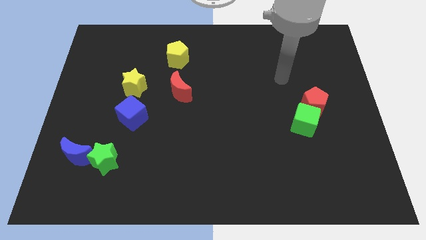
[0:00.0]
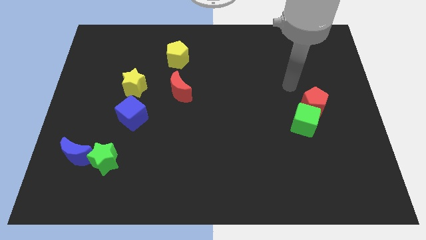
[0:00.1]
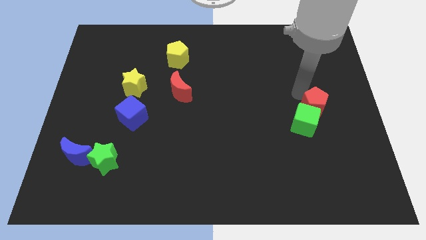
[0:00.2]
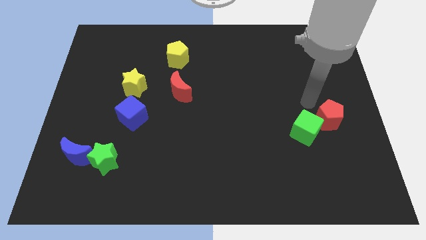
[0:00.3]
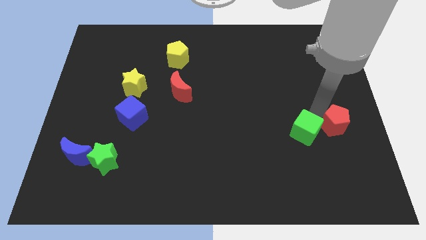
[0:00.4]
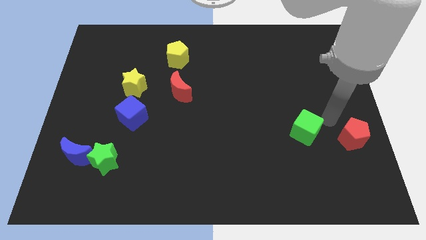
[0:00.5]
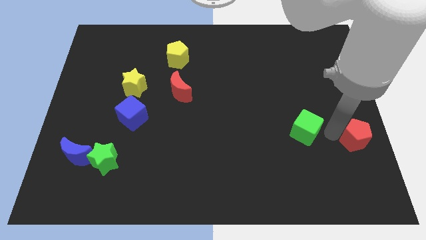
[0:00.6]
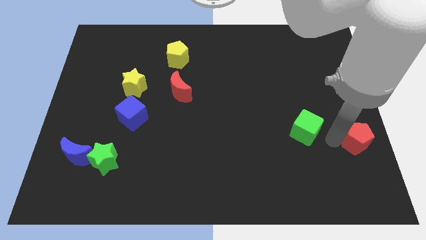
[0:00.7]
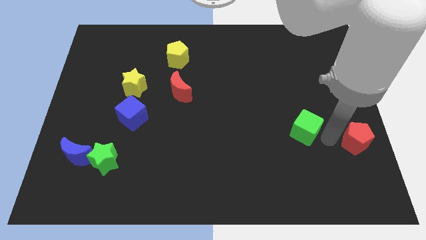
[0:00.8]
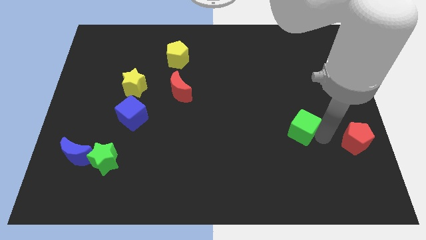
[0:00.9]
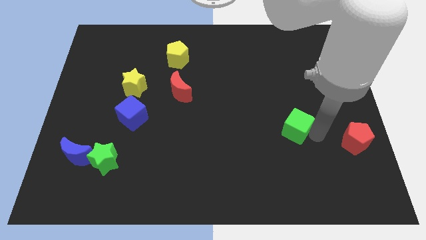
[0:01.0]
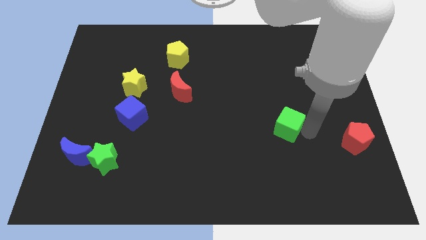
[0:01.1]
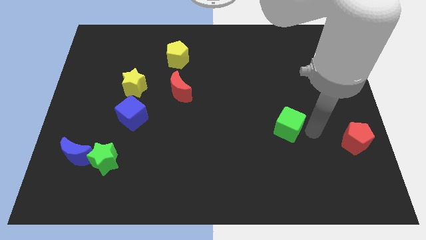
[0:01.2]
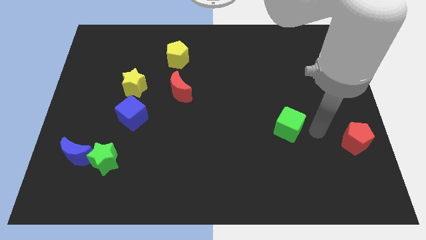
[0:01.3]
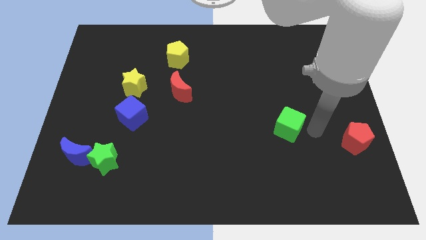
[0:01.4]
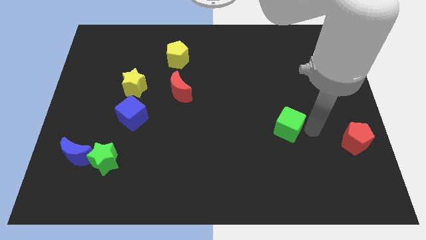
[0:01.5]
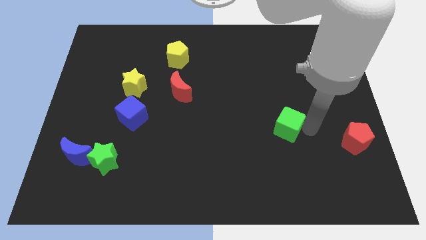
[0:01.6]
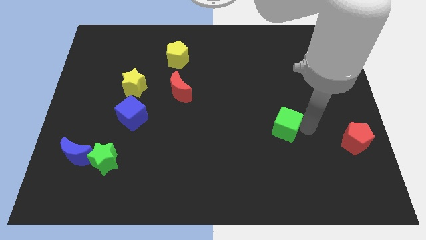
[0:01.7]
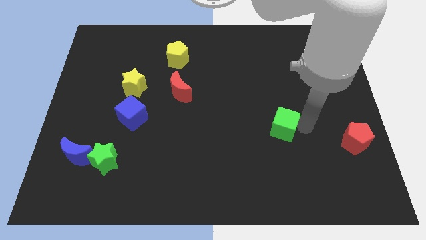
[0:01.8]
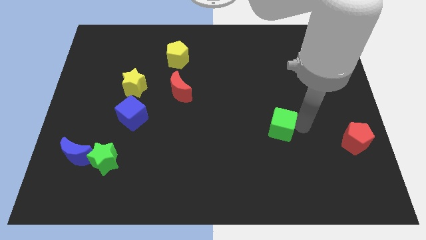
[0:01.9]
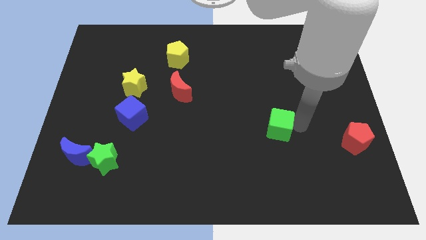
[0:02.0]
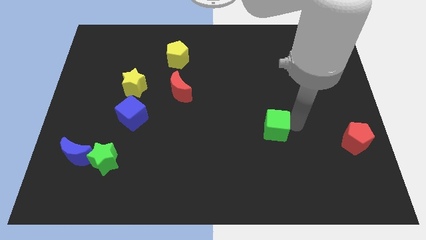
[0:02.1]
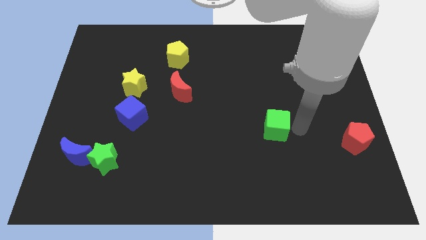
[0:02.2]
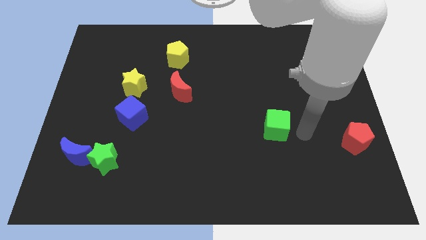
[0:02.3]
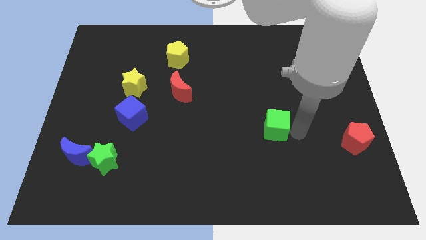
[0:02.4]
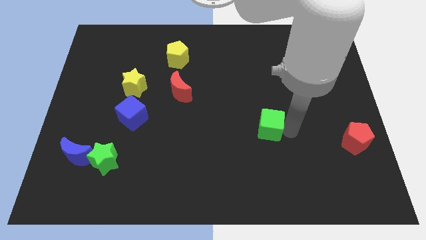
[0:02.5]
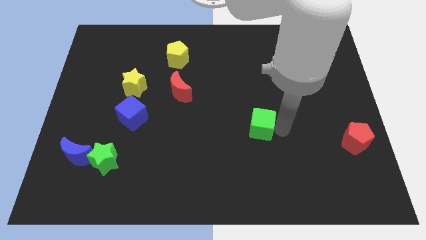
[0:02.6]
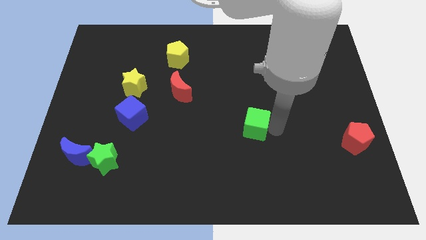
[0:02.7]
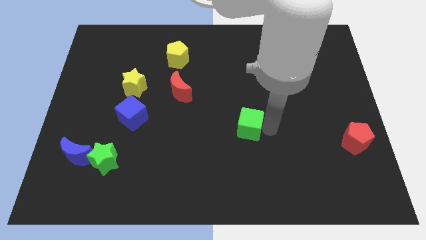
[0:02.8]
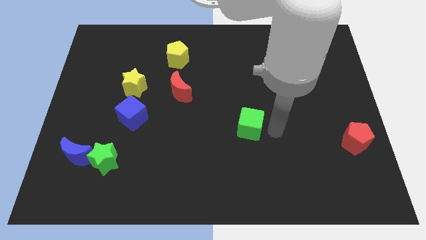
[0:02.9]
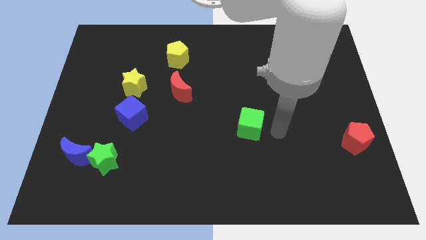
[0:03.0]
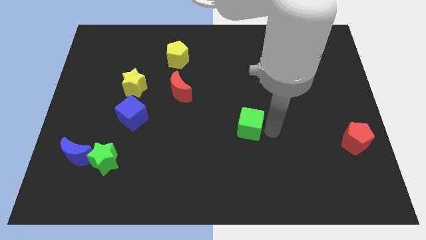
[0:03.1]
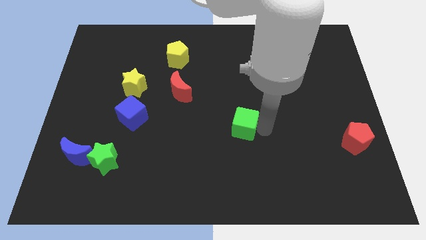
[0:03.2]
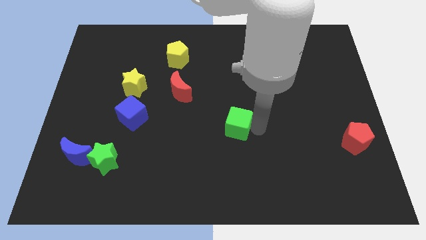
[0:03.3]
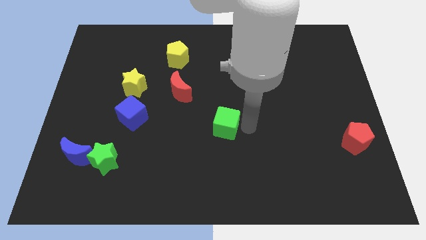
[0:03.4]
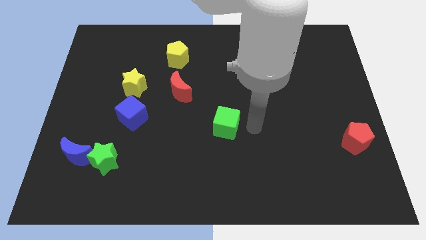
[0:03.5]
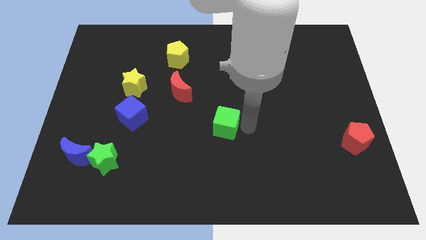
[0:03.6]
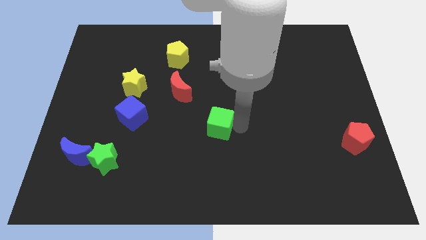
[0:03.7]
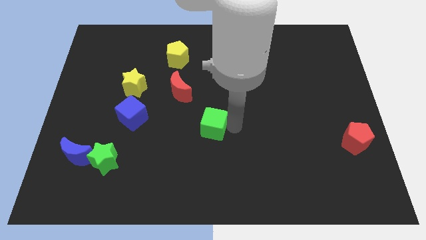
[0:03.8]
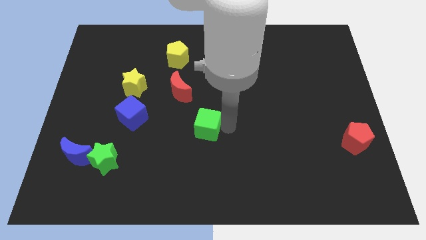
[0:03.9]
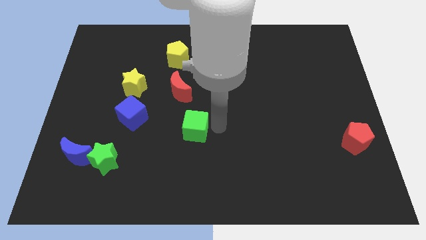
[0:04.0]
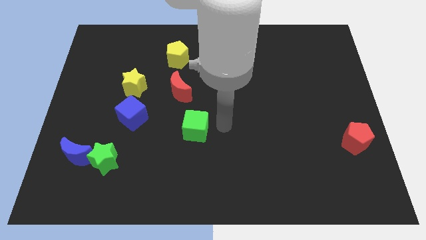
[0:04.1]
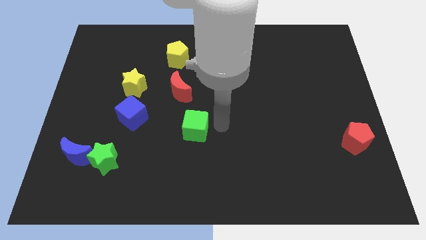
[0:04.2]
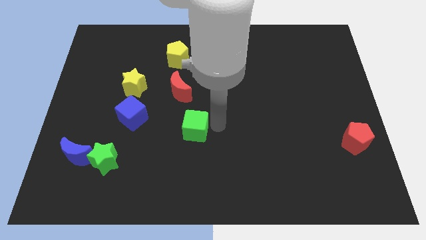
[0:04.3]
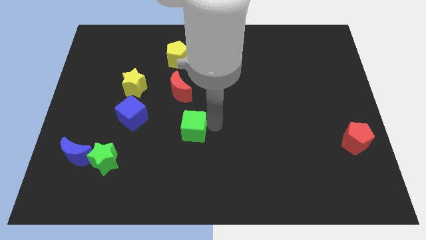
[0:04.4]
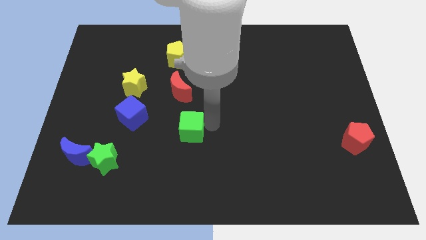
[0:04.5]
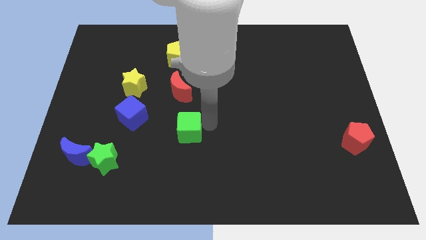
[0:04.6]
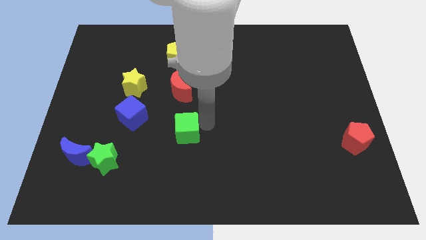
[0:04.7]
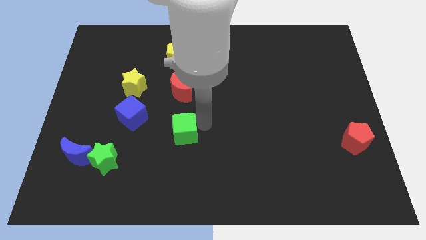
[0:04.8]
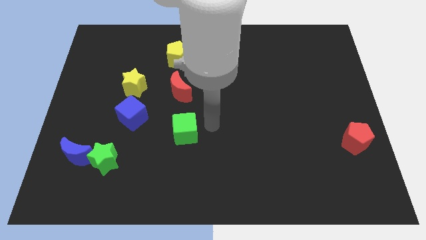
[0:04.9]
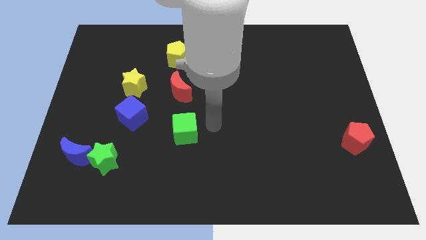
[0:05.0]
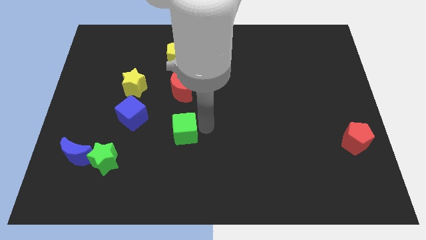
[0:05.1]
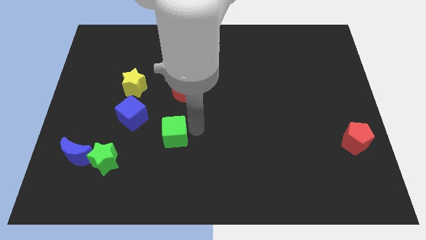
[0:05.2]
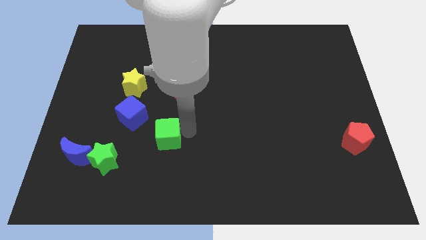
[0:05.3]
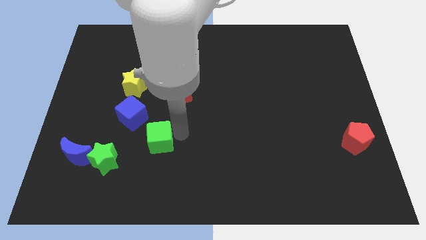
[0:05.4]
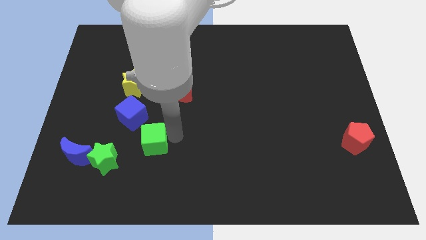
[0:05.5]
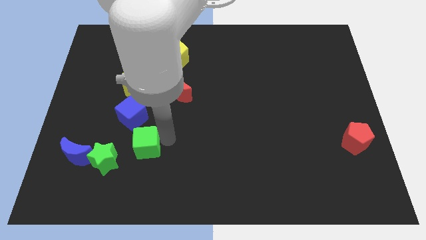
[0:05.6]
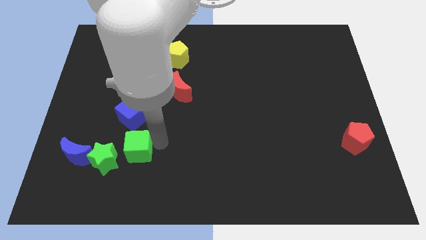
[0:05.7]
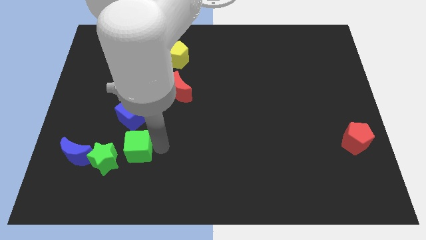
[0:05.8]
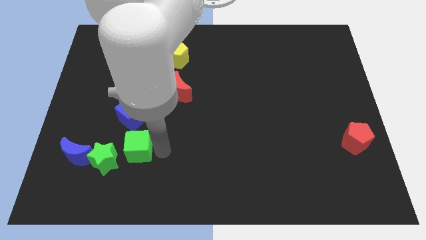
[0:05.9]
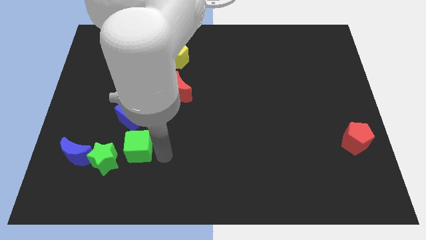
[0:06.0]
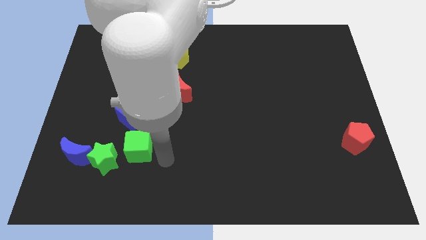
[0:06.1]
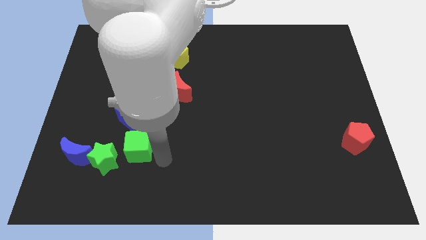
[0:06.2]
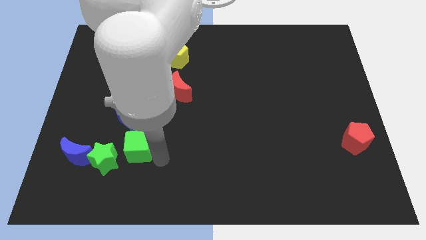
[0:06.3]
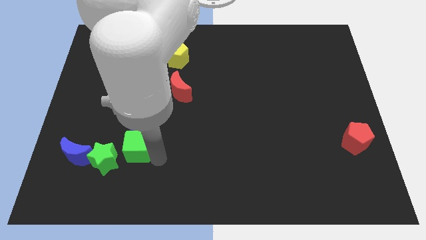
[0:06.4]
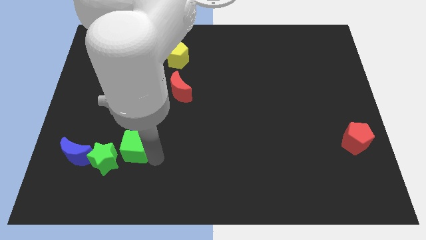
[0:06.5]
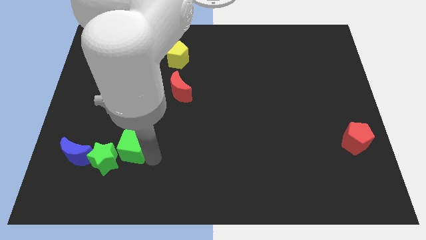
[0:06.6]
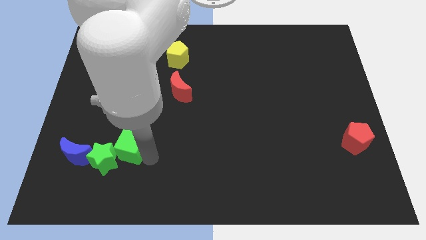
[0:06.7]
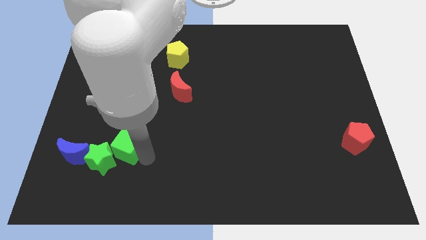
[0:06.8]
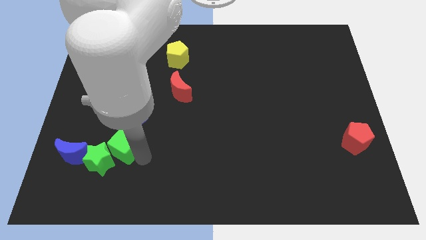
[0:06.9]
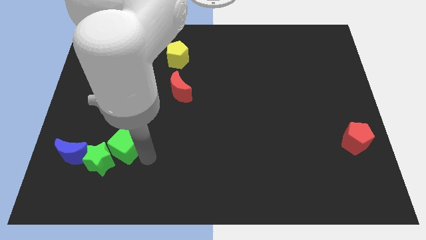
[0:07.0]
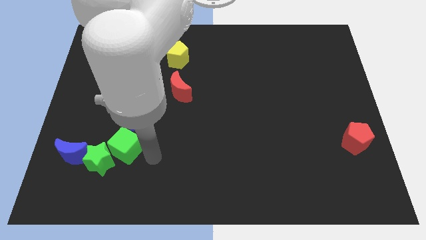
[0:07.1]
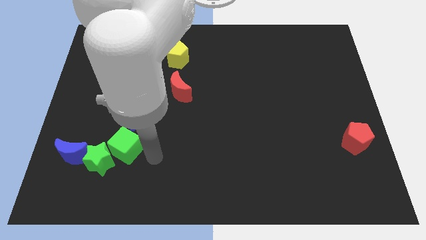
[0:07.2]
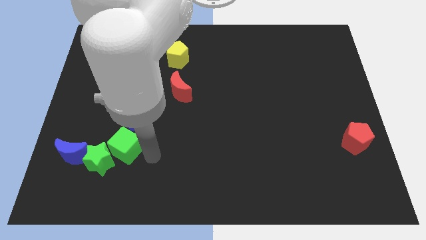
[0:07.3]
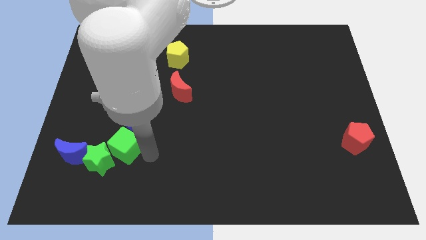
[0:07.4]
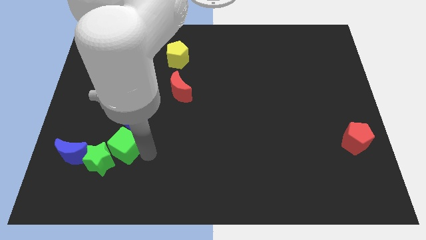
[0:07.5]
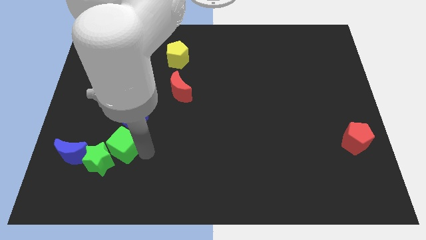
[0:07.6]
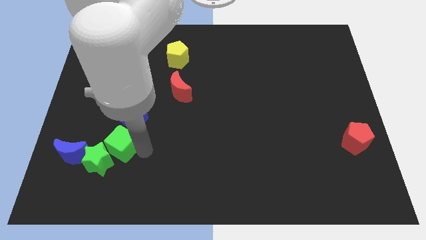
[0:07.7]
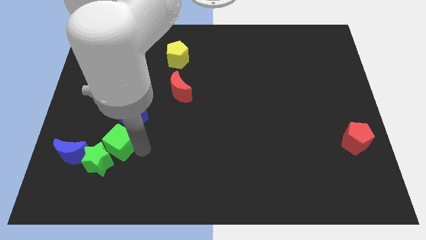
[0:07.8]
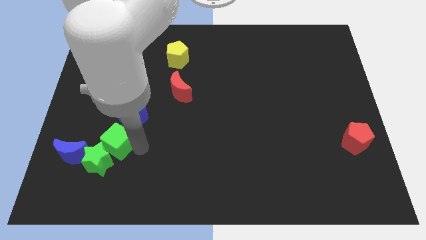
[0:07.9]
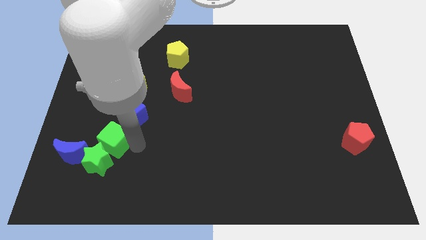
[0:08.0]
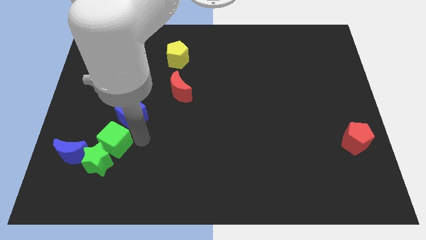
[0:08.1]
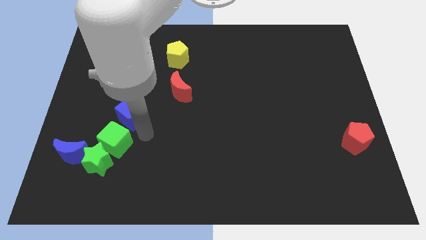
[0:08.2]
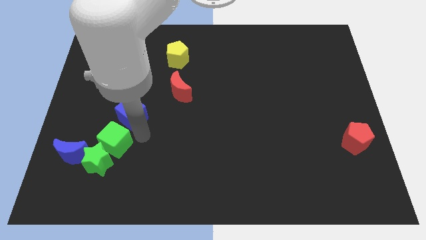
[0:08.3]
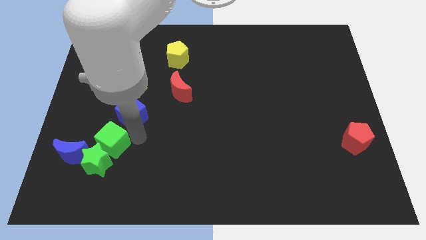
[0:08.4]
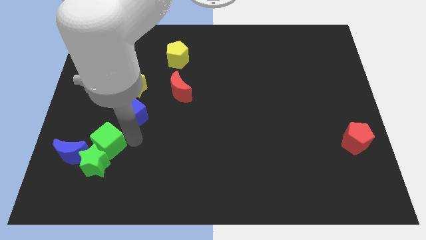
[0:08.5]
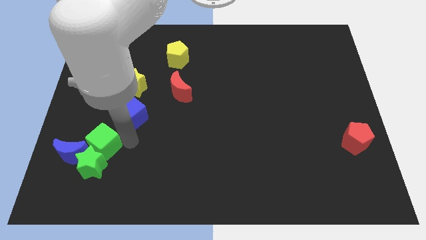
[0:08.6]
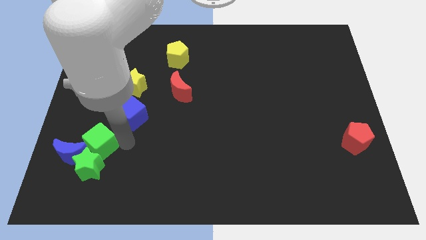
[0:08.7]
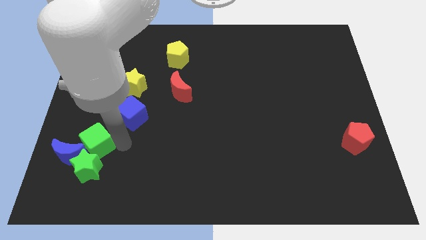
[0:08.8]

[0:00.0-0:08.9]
put the green cube next to the blue moon
